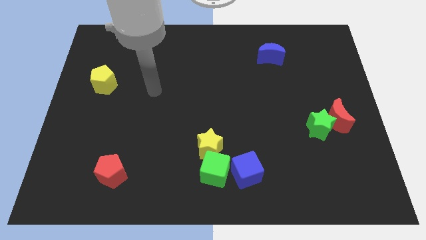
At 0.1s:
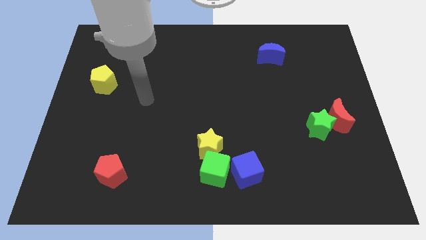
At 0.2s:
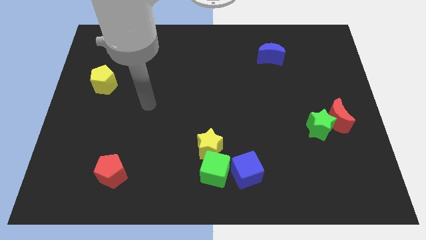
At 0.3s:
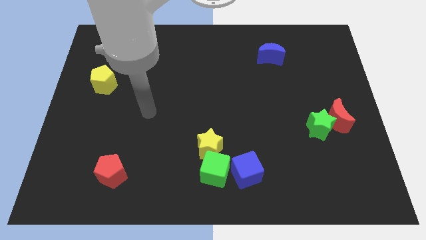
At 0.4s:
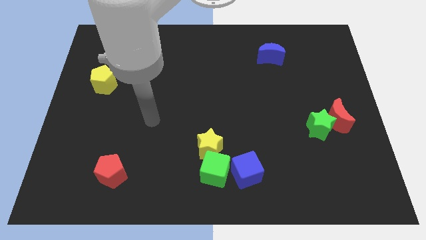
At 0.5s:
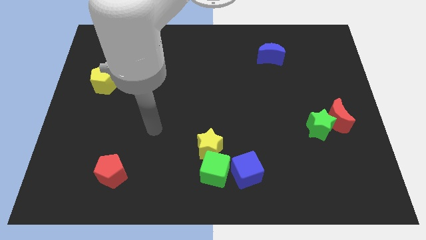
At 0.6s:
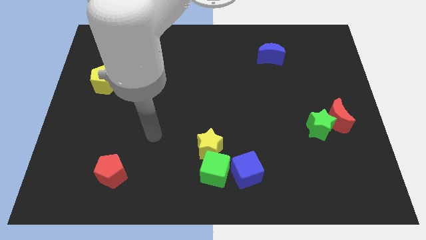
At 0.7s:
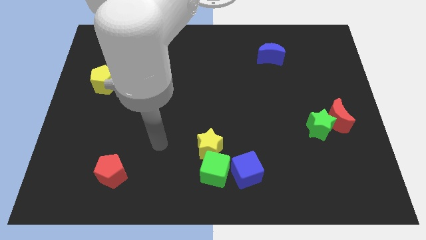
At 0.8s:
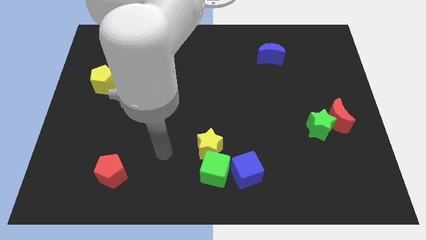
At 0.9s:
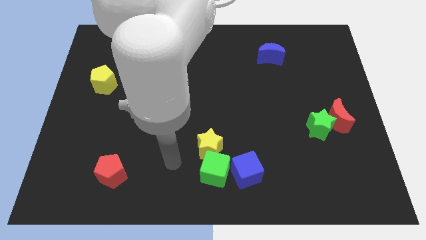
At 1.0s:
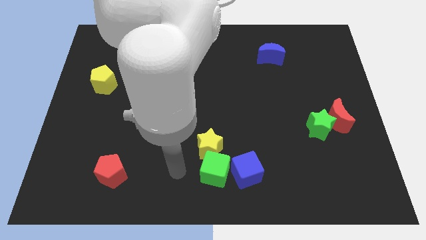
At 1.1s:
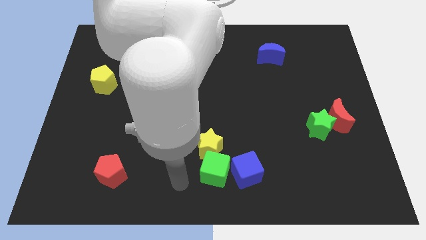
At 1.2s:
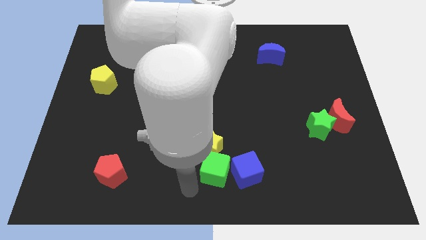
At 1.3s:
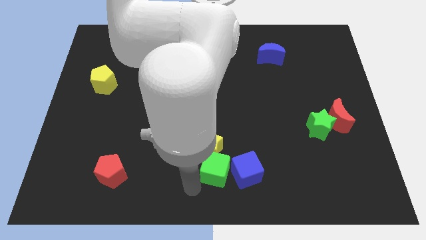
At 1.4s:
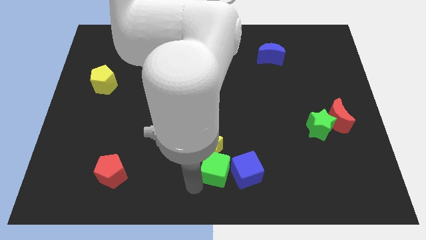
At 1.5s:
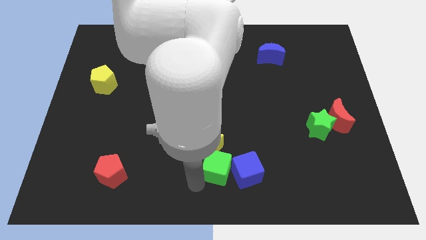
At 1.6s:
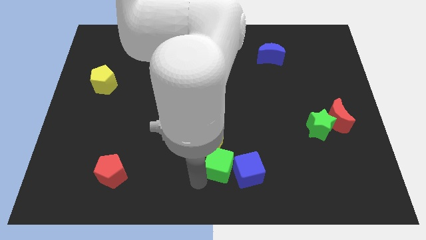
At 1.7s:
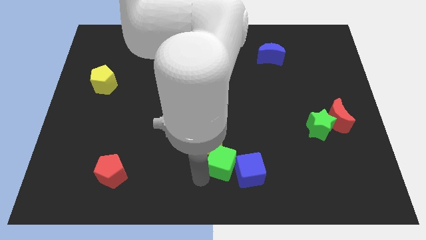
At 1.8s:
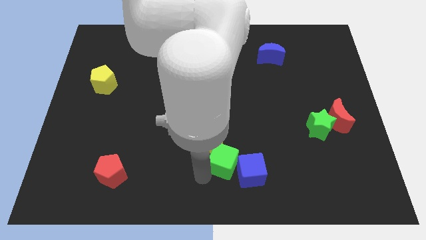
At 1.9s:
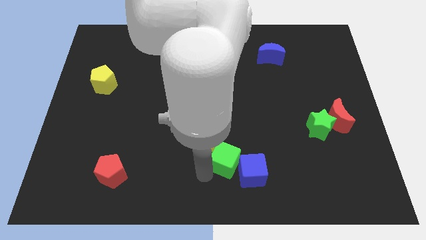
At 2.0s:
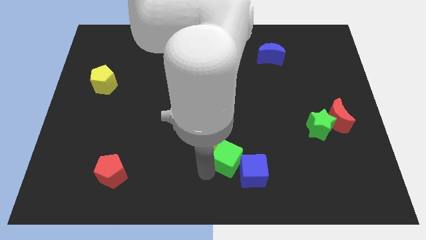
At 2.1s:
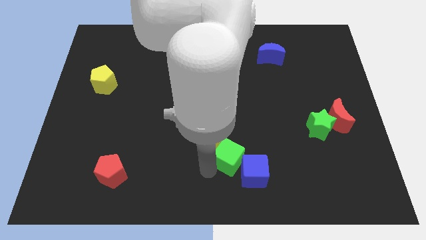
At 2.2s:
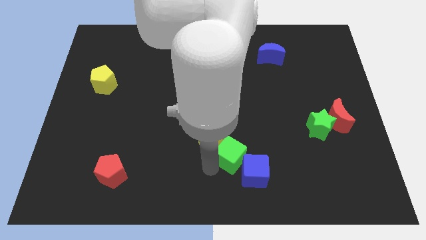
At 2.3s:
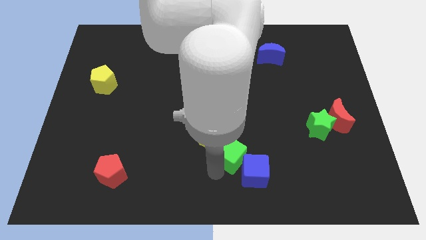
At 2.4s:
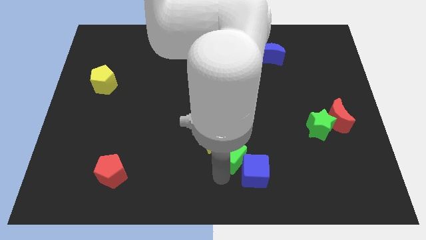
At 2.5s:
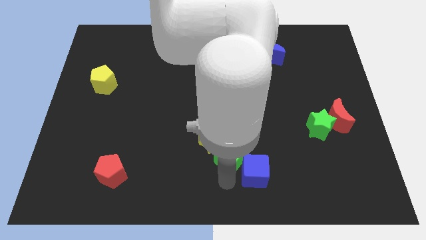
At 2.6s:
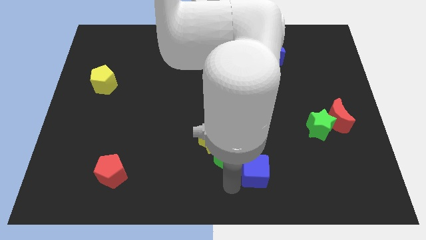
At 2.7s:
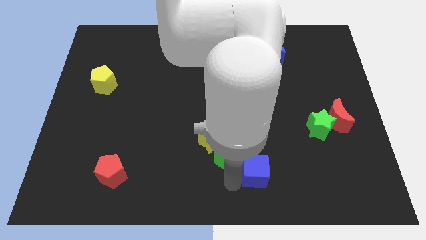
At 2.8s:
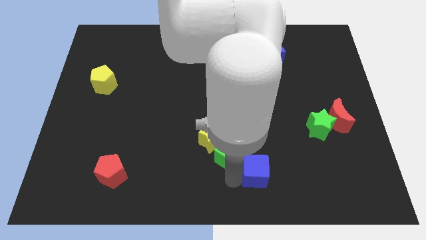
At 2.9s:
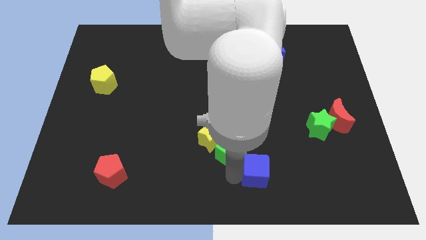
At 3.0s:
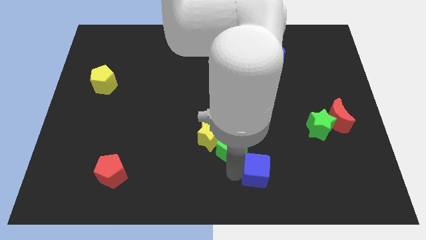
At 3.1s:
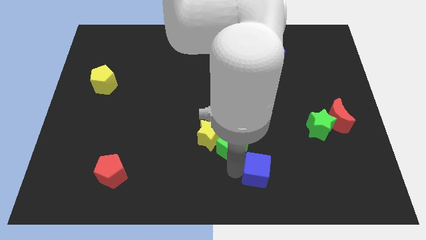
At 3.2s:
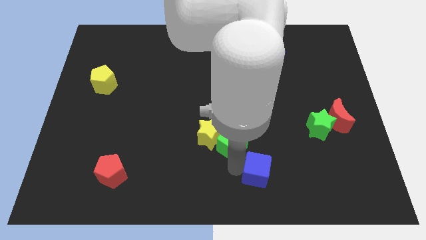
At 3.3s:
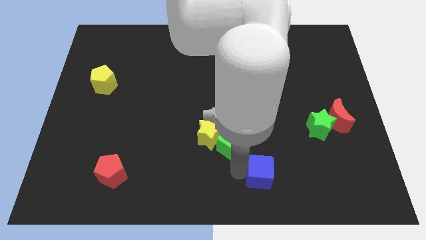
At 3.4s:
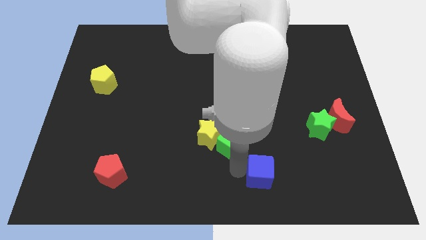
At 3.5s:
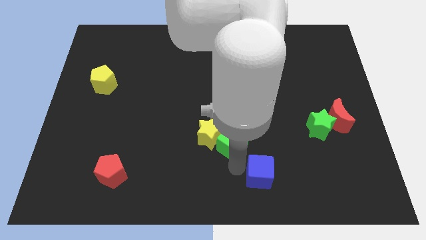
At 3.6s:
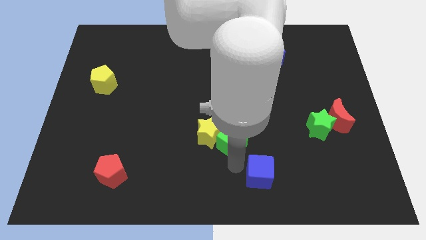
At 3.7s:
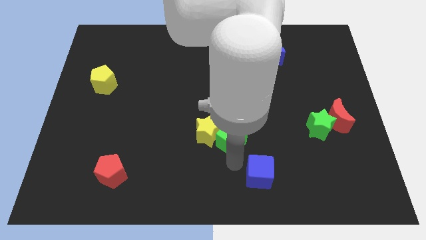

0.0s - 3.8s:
move the green cube upwards a little

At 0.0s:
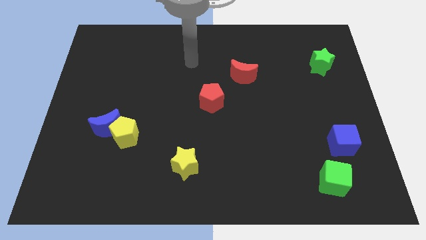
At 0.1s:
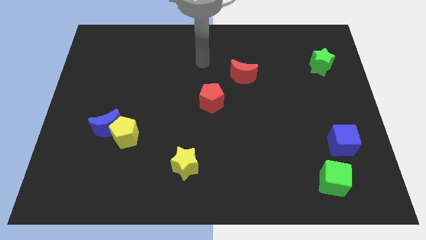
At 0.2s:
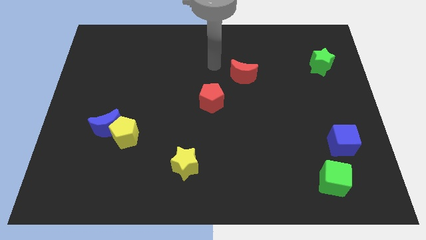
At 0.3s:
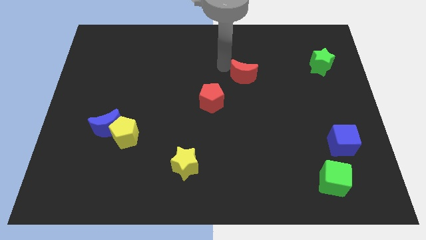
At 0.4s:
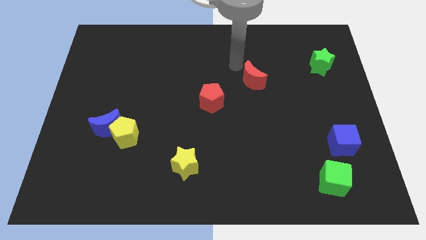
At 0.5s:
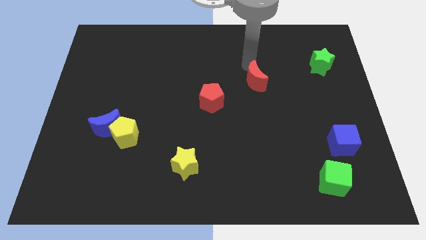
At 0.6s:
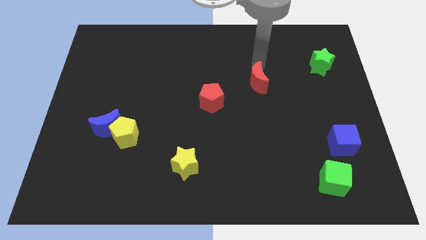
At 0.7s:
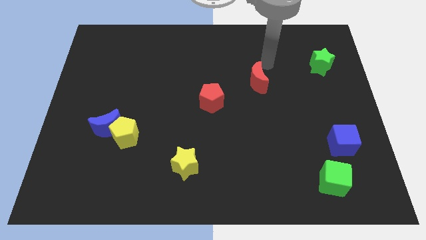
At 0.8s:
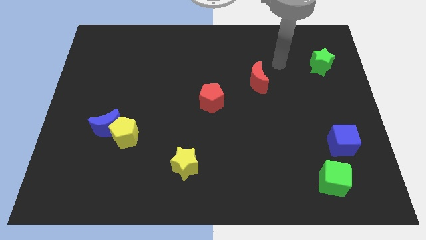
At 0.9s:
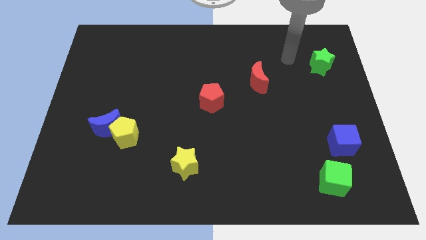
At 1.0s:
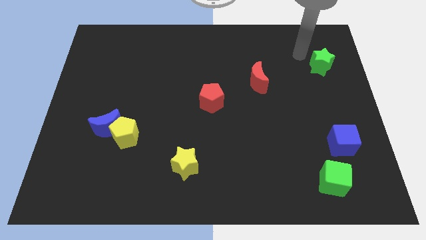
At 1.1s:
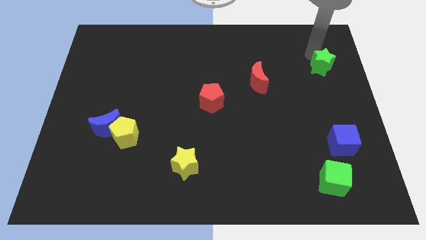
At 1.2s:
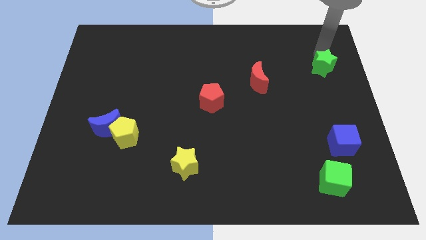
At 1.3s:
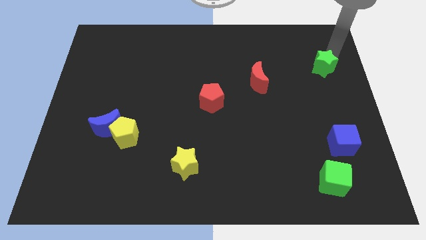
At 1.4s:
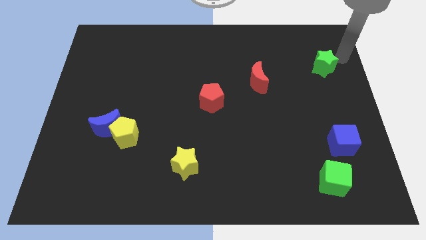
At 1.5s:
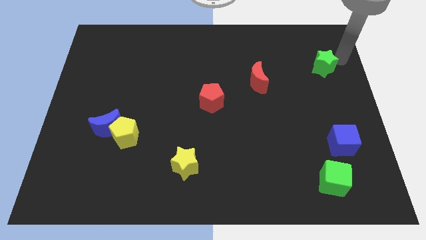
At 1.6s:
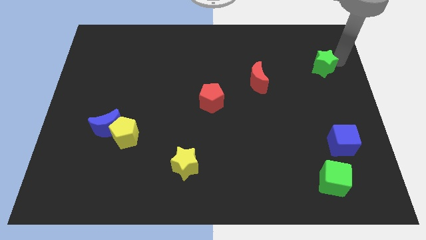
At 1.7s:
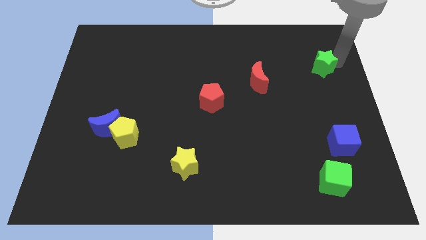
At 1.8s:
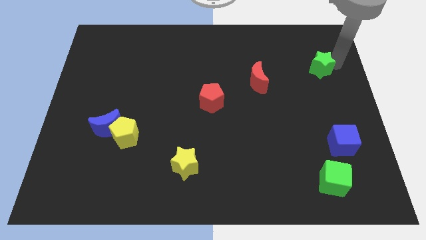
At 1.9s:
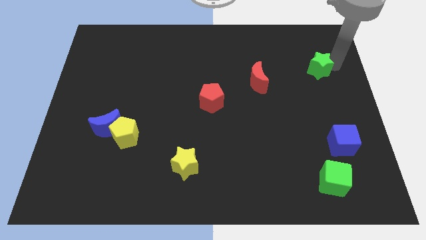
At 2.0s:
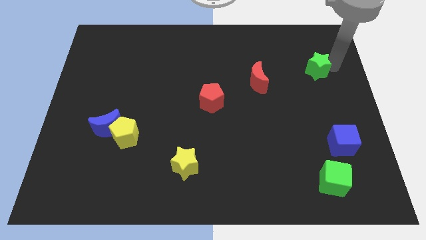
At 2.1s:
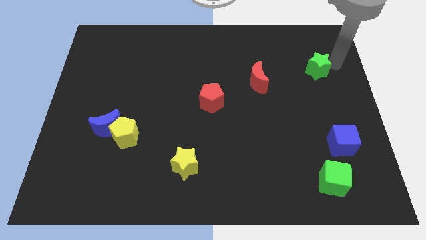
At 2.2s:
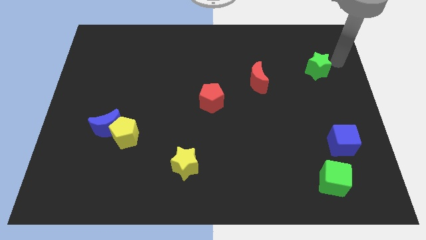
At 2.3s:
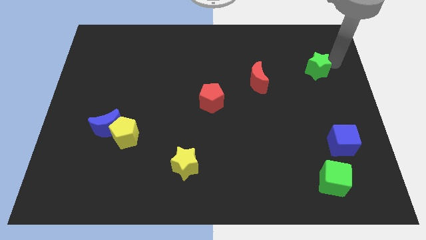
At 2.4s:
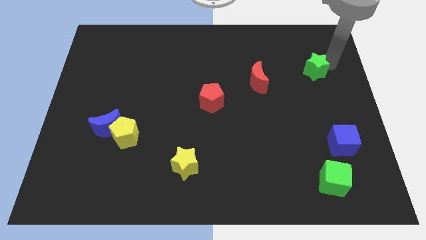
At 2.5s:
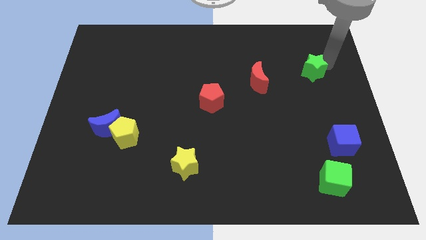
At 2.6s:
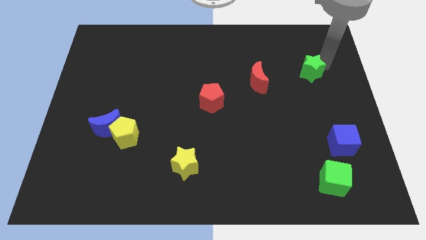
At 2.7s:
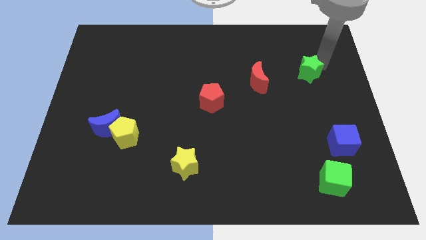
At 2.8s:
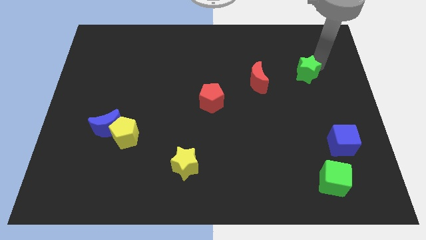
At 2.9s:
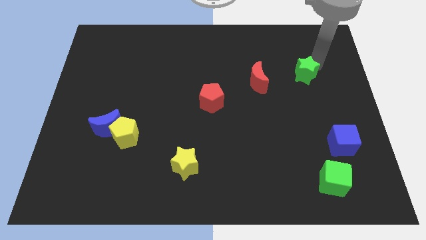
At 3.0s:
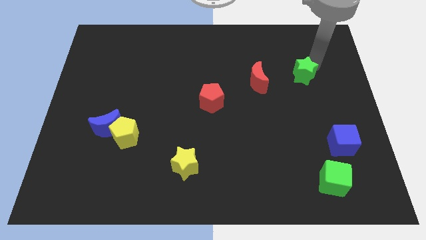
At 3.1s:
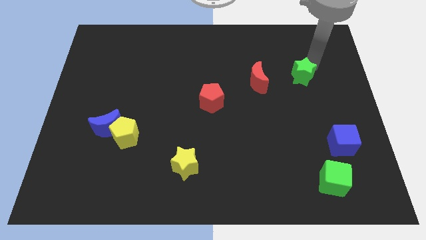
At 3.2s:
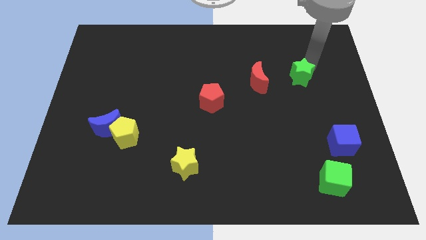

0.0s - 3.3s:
slightly slide the green star down and to the left

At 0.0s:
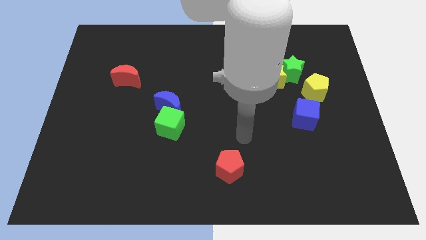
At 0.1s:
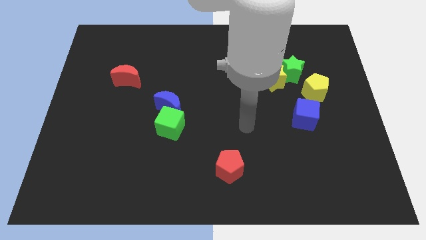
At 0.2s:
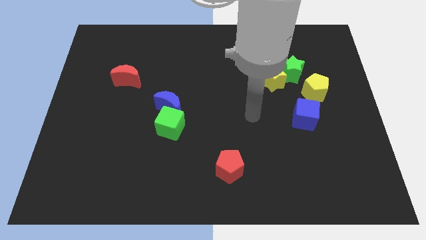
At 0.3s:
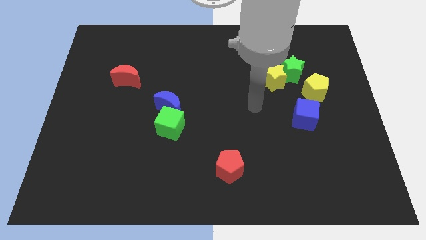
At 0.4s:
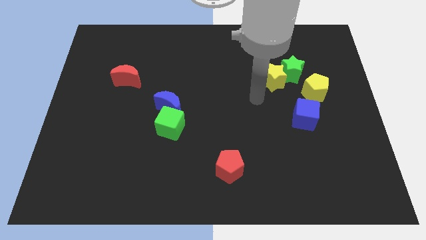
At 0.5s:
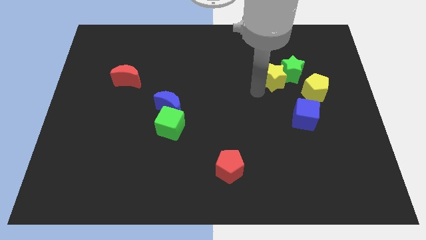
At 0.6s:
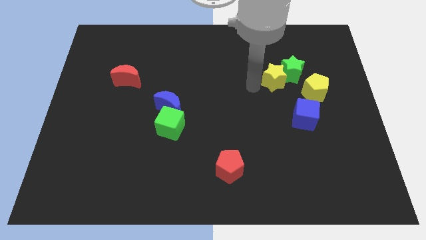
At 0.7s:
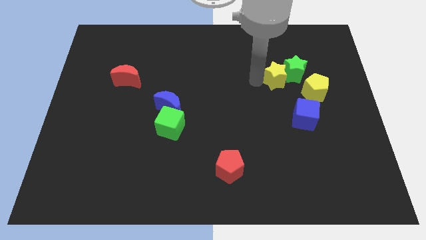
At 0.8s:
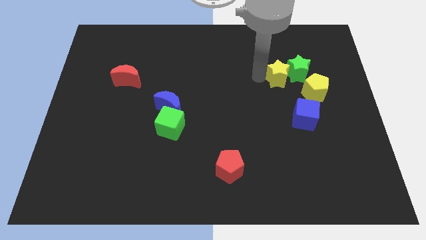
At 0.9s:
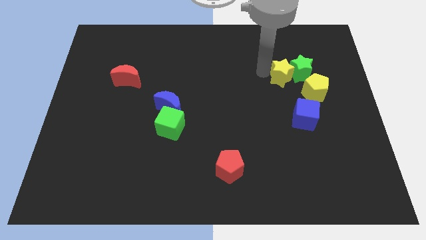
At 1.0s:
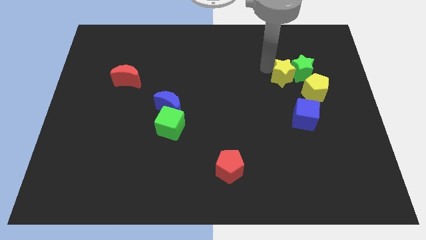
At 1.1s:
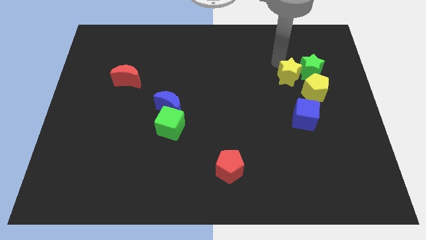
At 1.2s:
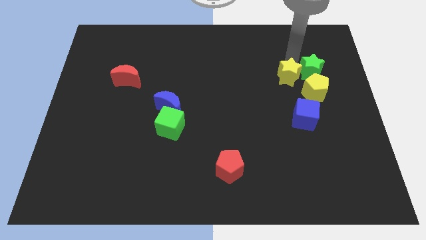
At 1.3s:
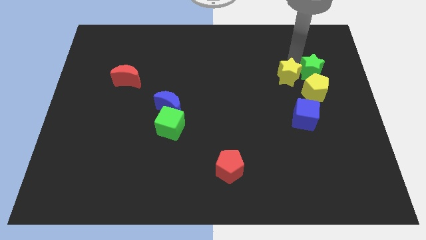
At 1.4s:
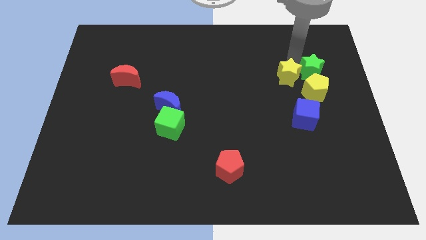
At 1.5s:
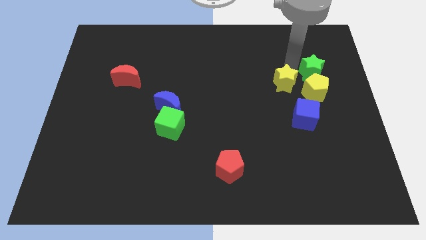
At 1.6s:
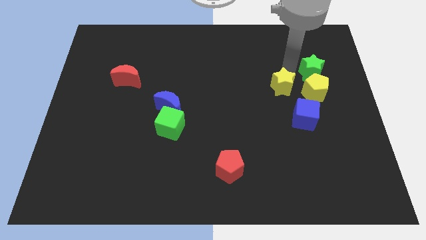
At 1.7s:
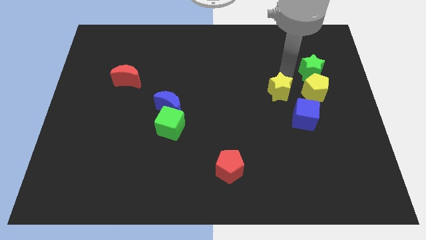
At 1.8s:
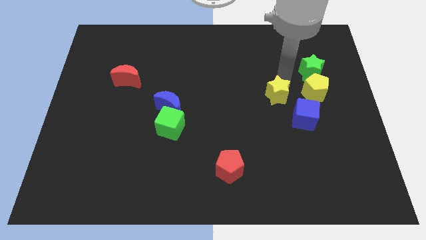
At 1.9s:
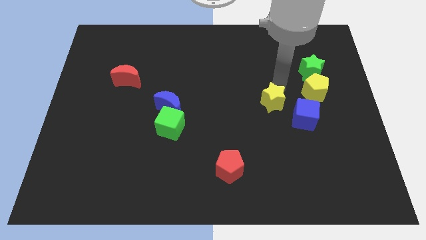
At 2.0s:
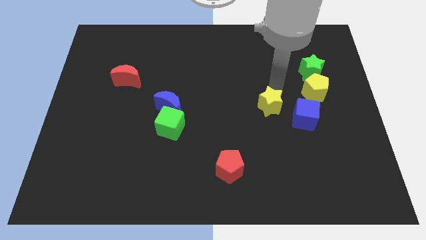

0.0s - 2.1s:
move the yellow star downwards a little bit
